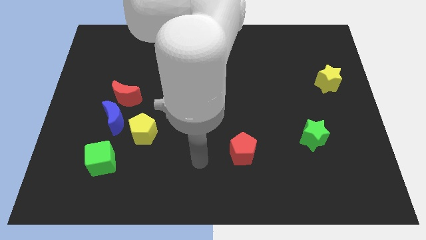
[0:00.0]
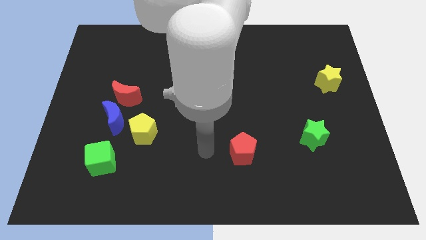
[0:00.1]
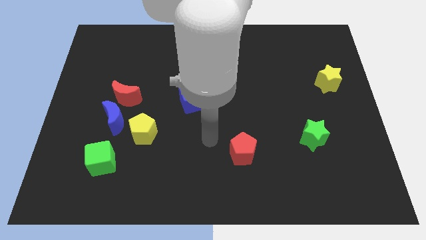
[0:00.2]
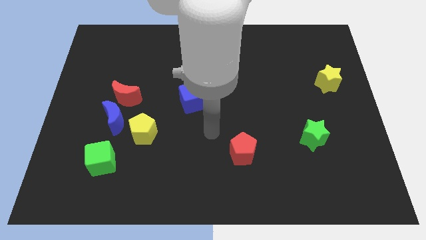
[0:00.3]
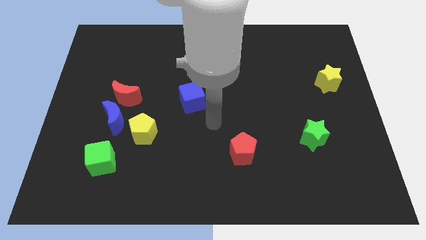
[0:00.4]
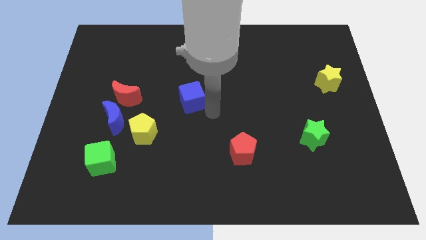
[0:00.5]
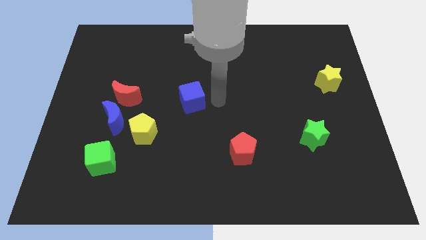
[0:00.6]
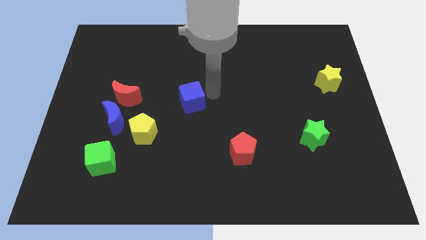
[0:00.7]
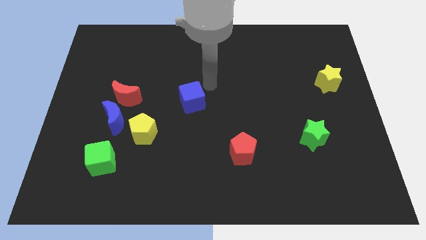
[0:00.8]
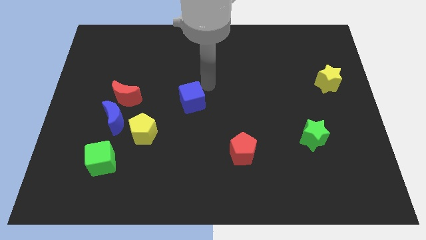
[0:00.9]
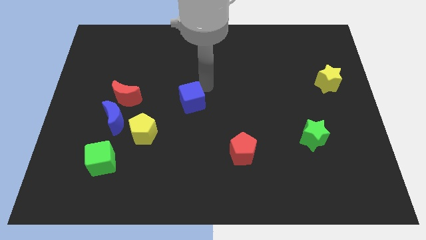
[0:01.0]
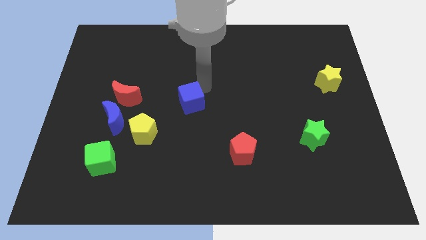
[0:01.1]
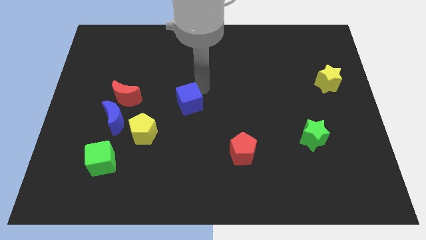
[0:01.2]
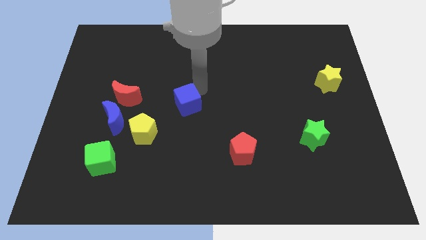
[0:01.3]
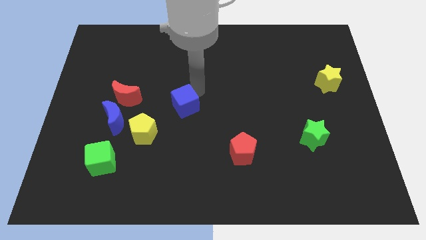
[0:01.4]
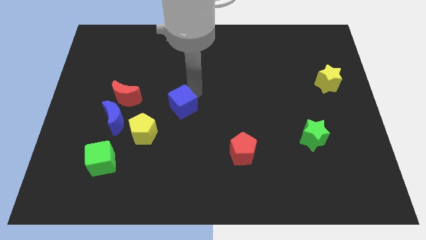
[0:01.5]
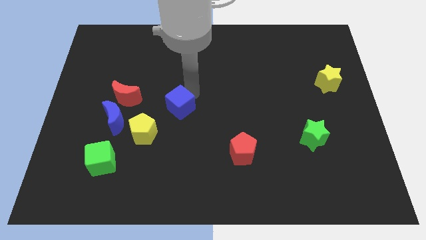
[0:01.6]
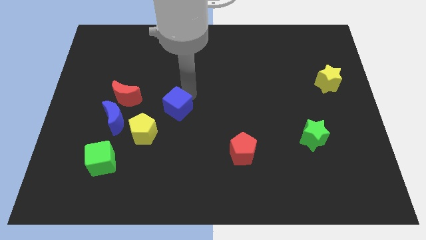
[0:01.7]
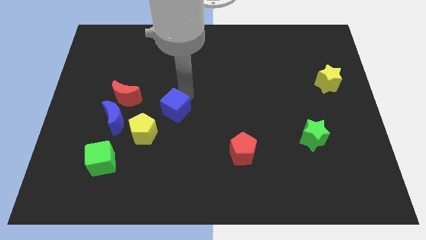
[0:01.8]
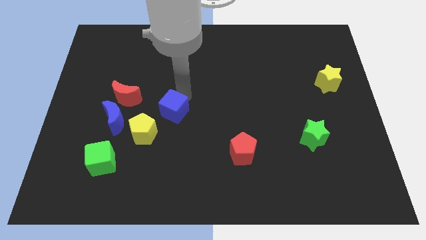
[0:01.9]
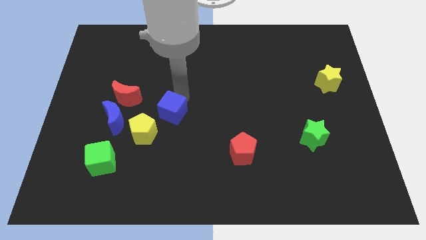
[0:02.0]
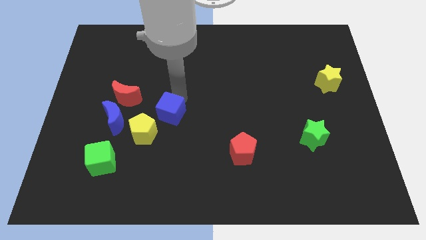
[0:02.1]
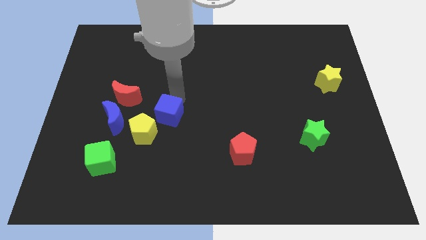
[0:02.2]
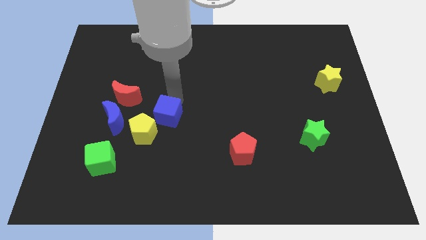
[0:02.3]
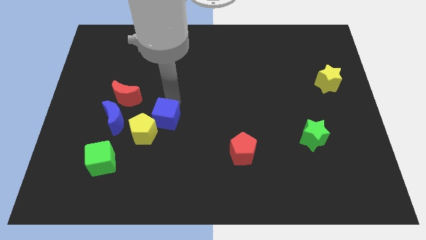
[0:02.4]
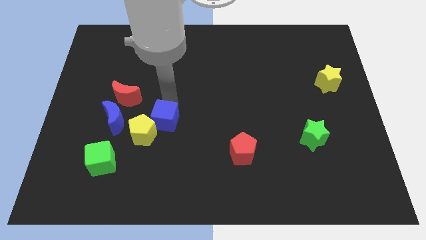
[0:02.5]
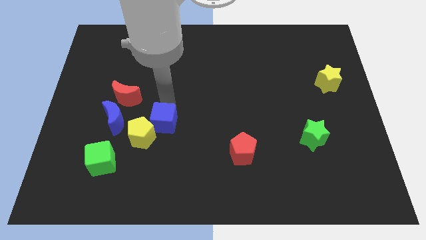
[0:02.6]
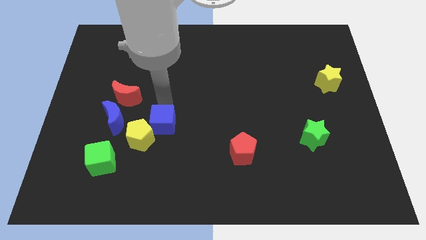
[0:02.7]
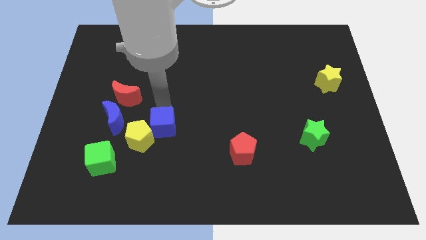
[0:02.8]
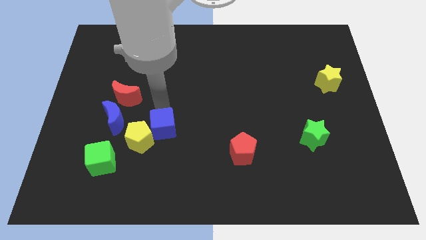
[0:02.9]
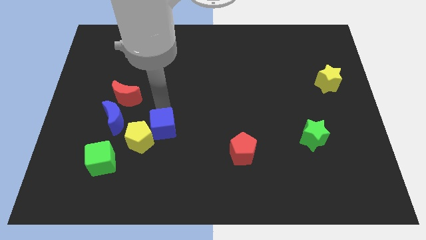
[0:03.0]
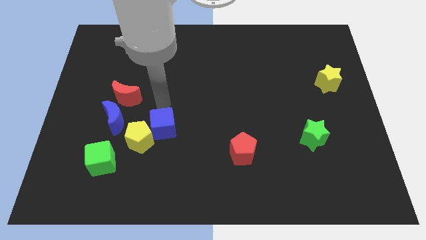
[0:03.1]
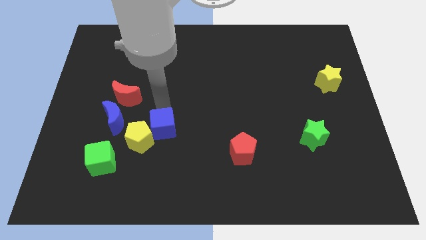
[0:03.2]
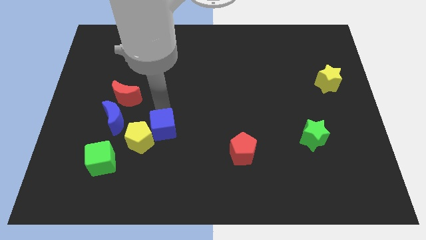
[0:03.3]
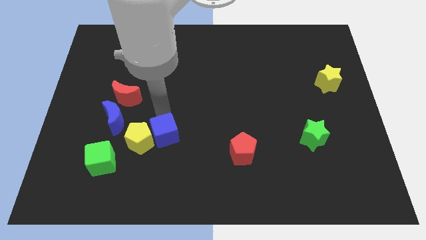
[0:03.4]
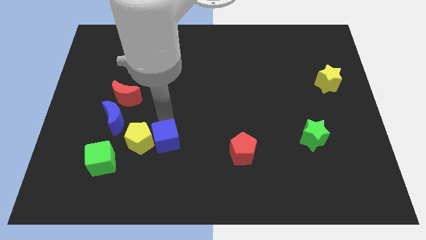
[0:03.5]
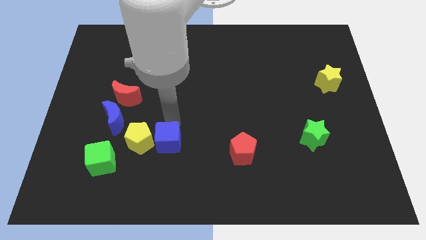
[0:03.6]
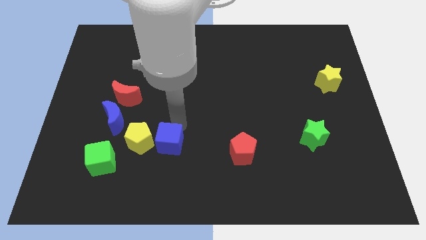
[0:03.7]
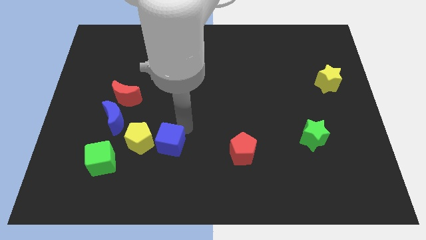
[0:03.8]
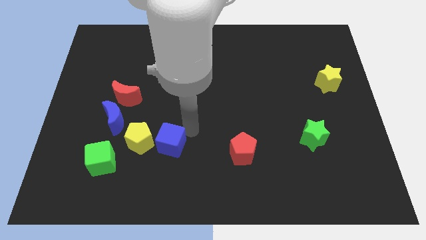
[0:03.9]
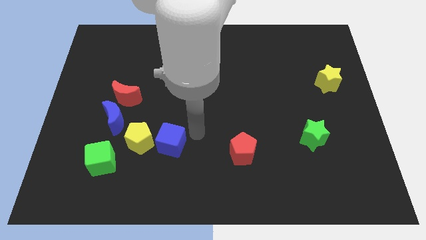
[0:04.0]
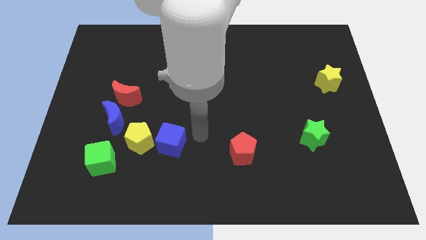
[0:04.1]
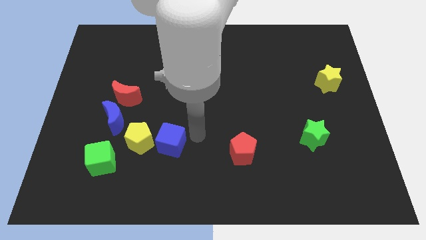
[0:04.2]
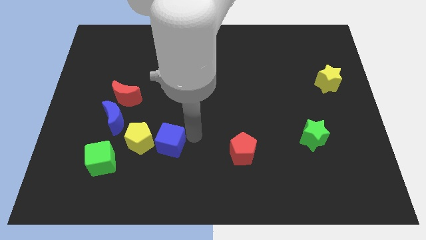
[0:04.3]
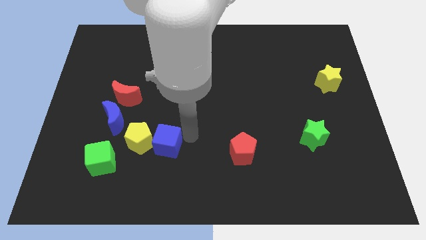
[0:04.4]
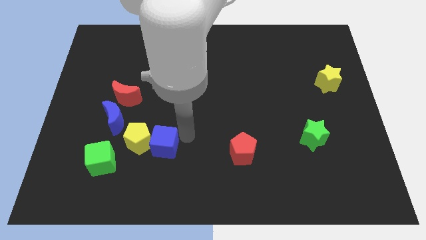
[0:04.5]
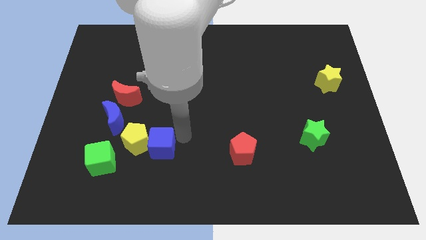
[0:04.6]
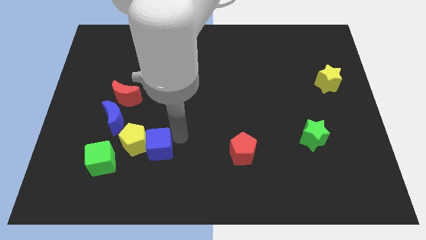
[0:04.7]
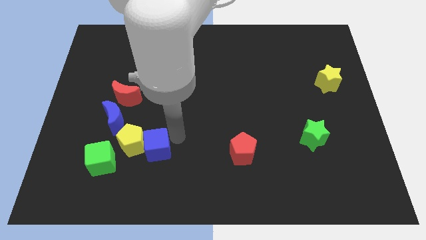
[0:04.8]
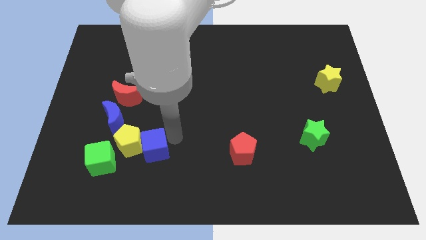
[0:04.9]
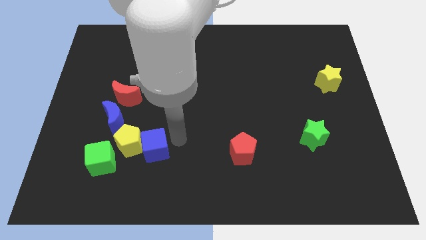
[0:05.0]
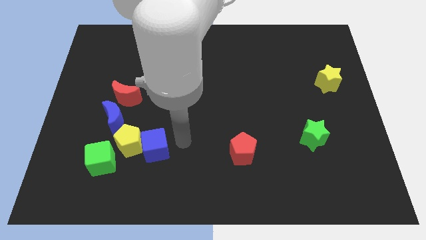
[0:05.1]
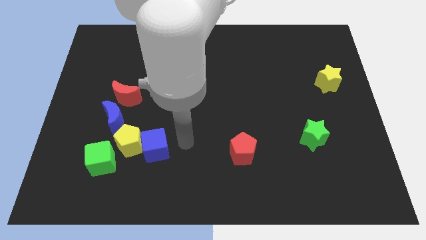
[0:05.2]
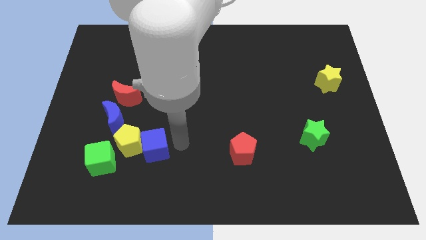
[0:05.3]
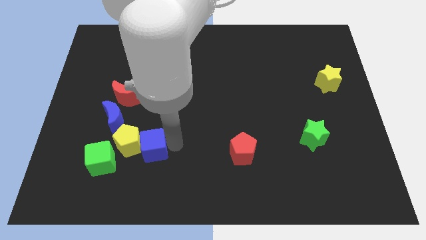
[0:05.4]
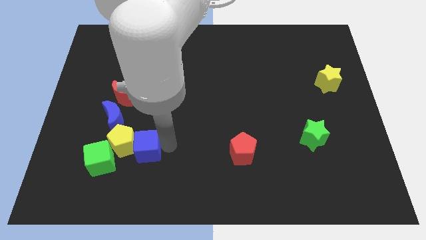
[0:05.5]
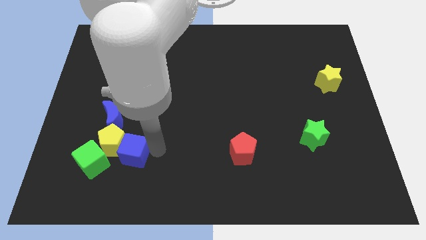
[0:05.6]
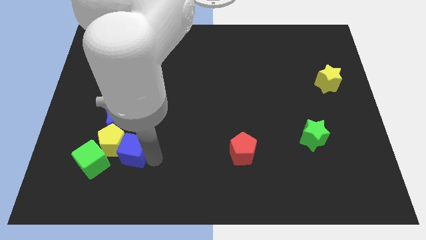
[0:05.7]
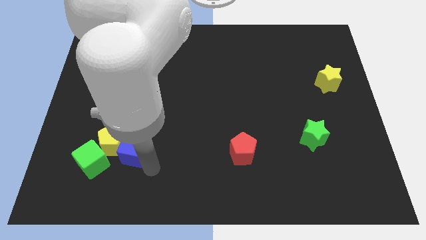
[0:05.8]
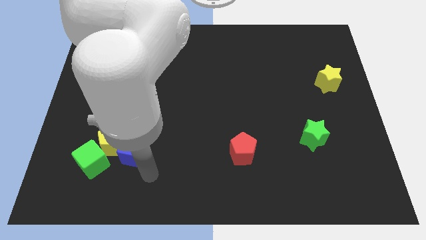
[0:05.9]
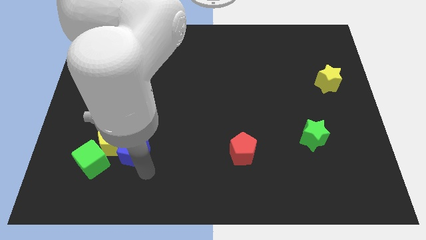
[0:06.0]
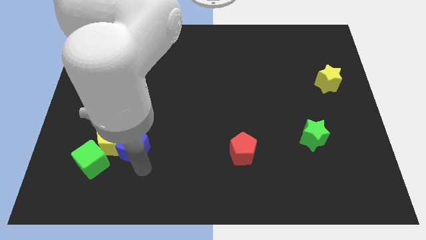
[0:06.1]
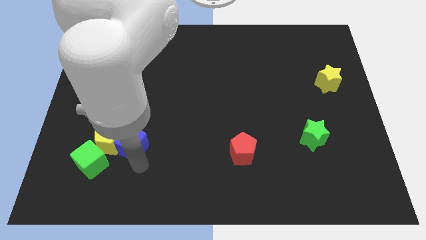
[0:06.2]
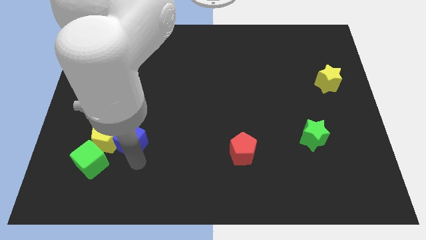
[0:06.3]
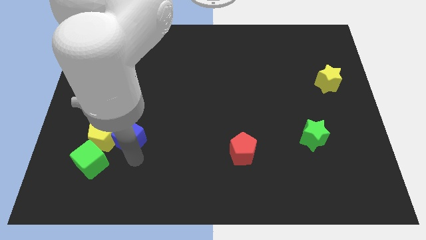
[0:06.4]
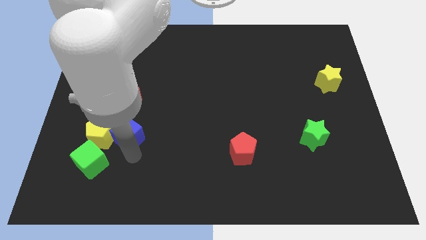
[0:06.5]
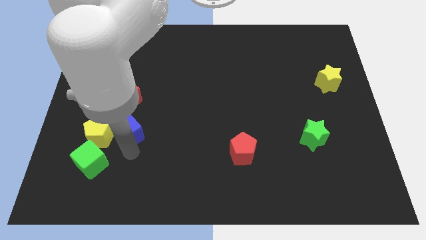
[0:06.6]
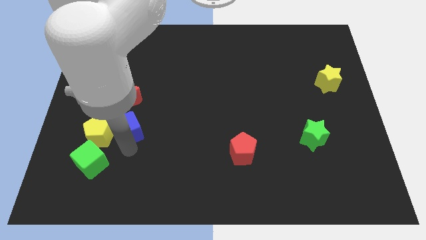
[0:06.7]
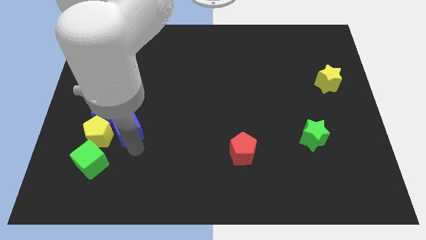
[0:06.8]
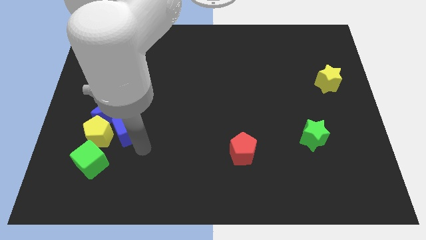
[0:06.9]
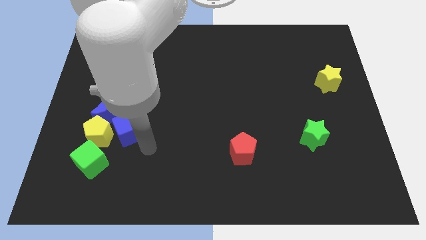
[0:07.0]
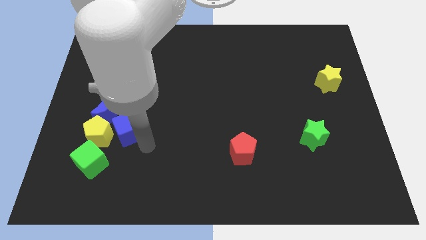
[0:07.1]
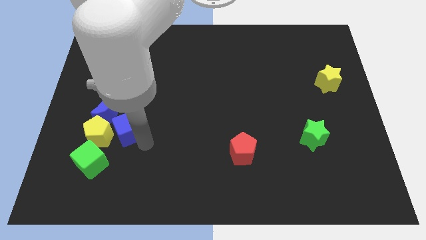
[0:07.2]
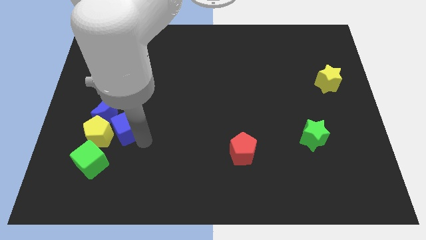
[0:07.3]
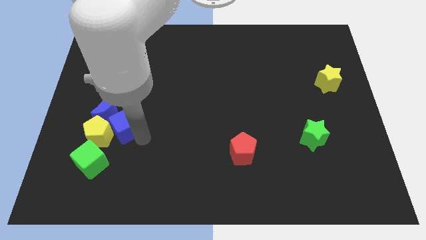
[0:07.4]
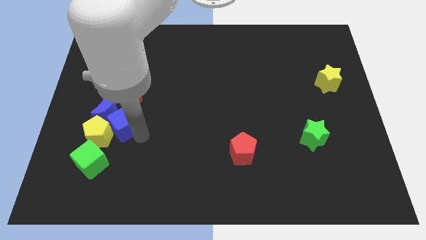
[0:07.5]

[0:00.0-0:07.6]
slide the blue cube towards the blue moon
